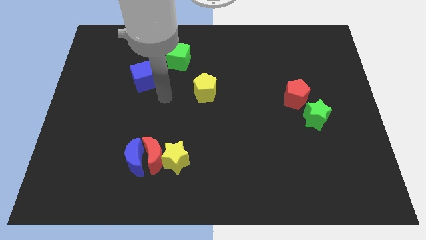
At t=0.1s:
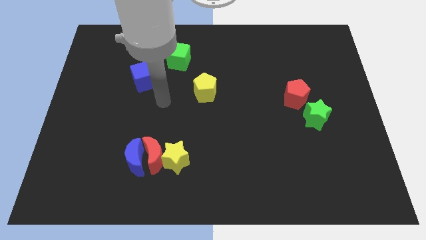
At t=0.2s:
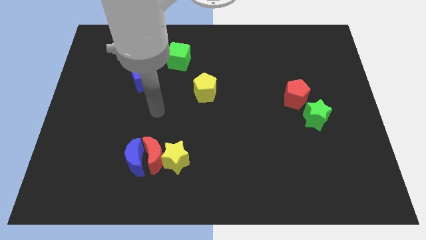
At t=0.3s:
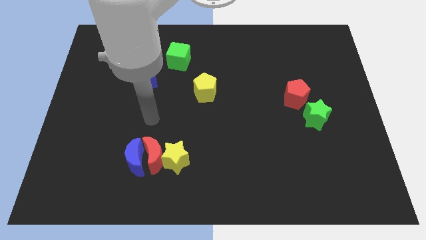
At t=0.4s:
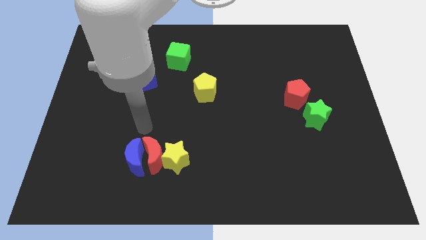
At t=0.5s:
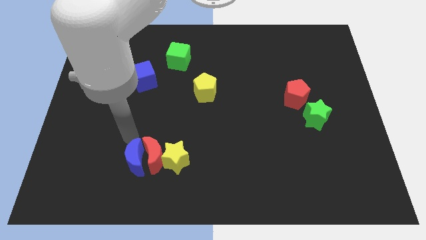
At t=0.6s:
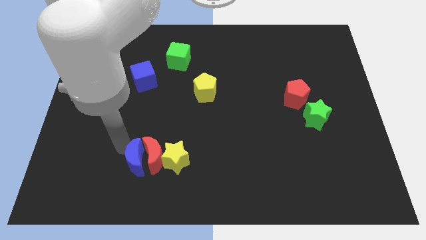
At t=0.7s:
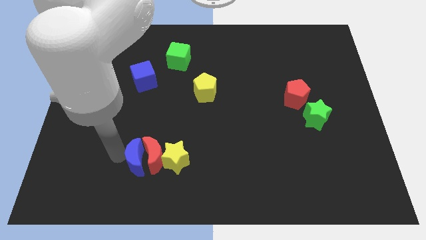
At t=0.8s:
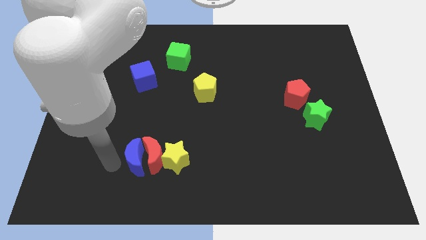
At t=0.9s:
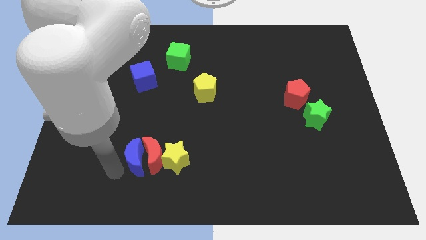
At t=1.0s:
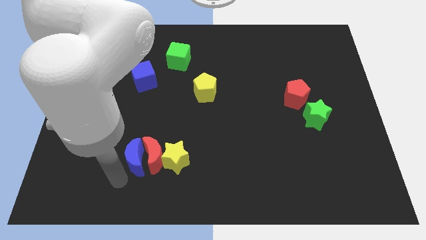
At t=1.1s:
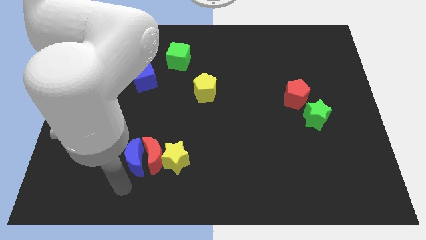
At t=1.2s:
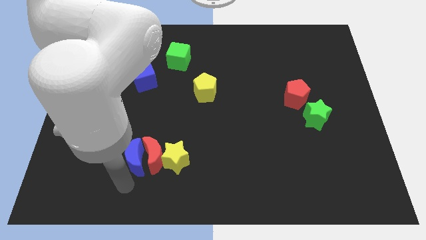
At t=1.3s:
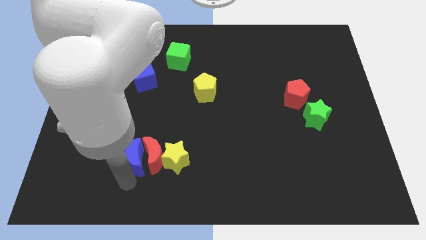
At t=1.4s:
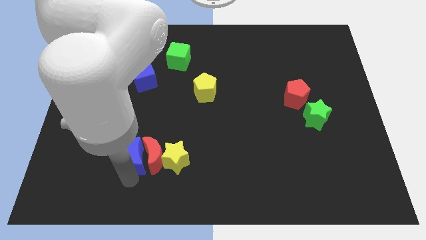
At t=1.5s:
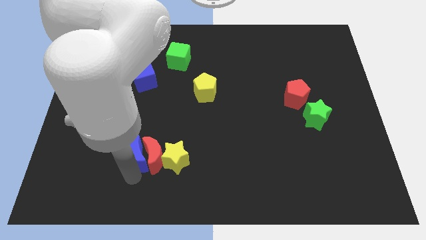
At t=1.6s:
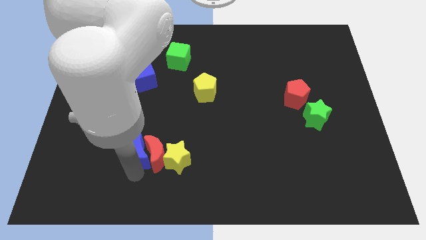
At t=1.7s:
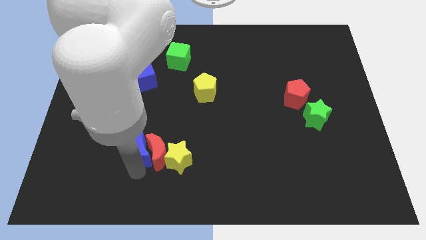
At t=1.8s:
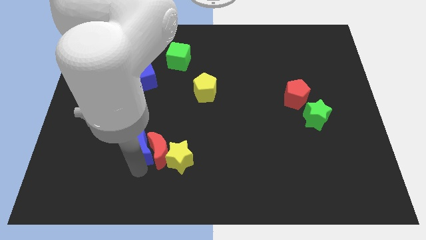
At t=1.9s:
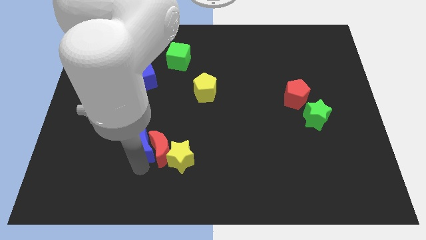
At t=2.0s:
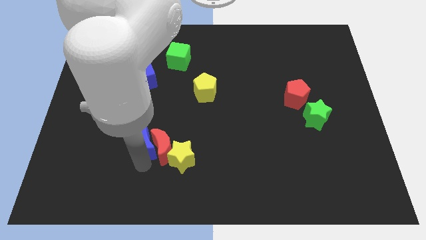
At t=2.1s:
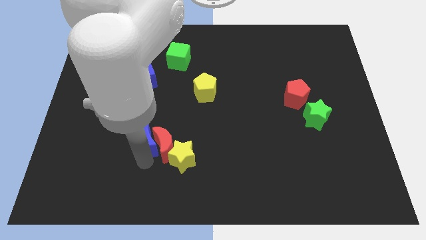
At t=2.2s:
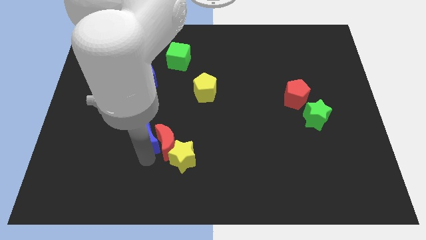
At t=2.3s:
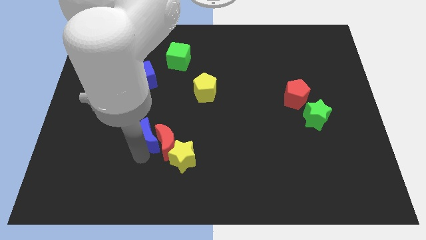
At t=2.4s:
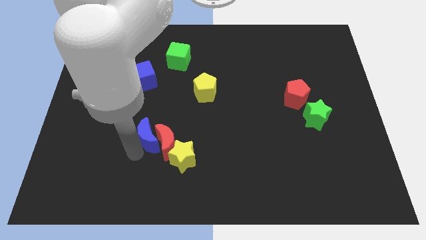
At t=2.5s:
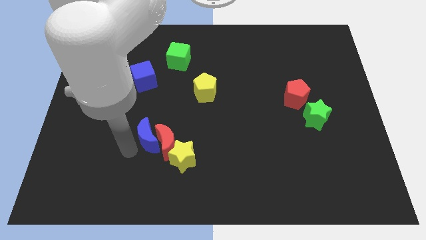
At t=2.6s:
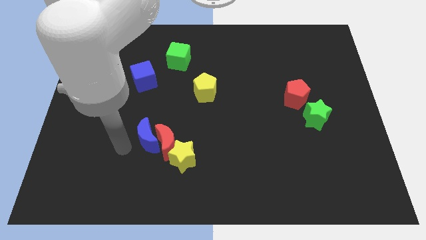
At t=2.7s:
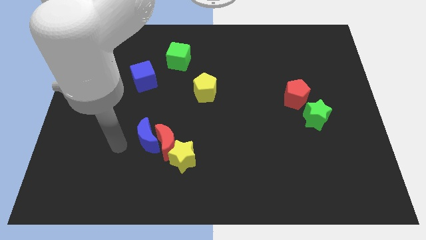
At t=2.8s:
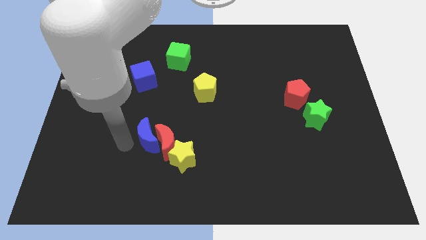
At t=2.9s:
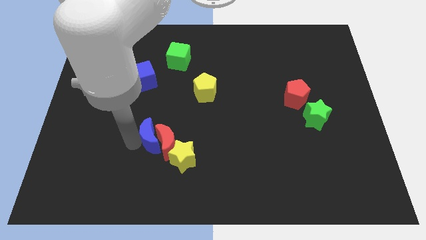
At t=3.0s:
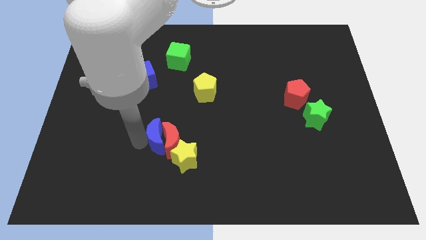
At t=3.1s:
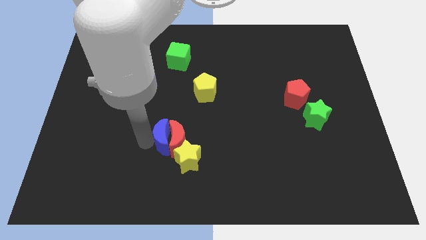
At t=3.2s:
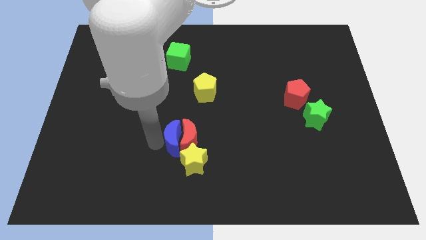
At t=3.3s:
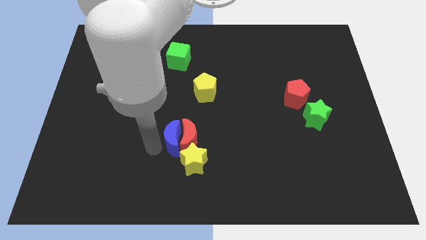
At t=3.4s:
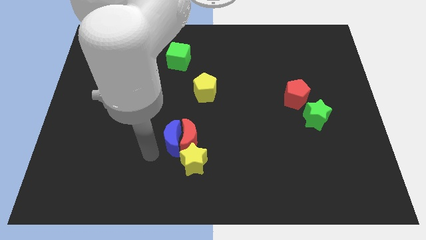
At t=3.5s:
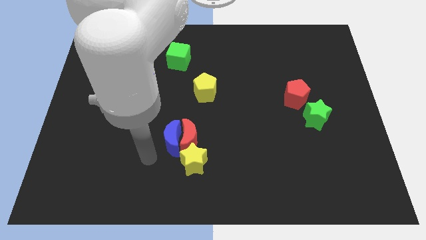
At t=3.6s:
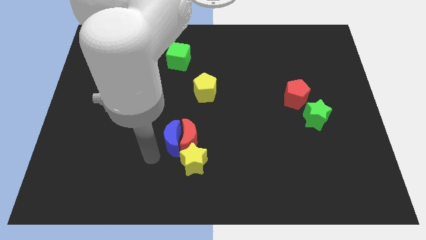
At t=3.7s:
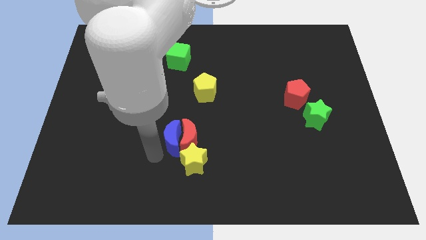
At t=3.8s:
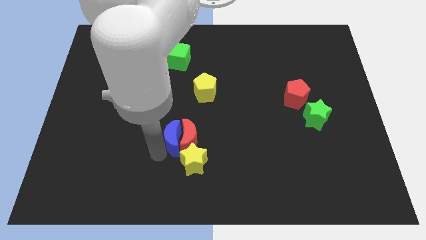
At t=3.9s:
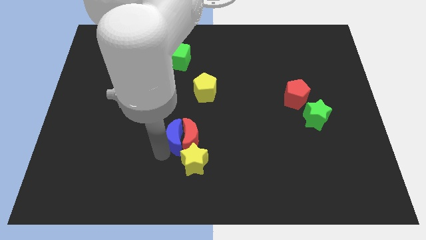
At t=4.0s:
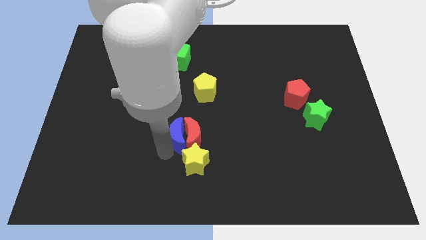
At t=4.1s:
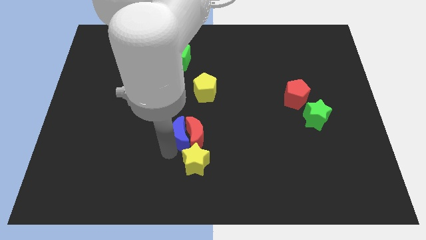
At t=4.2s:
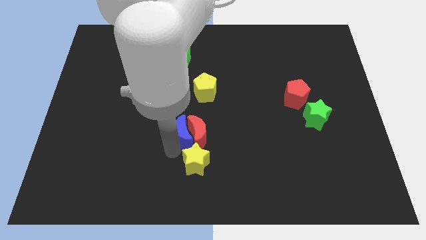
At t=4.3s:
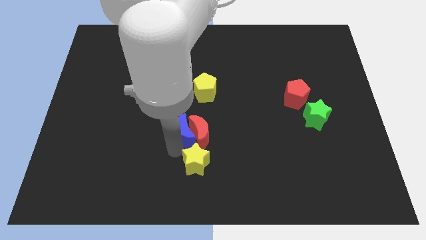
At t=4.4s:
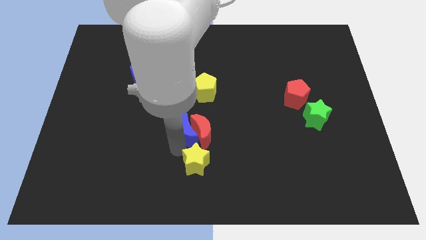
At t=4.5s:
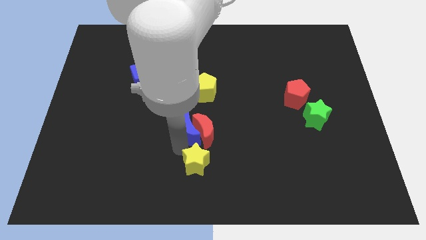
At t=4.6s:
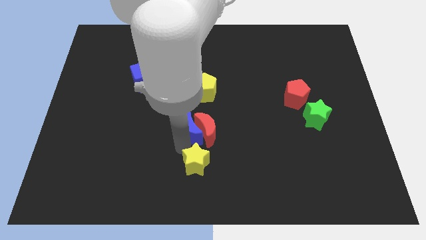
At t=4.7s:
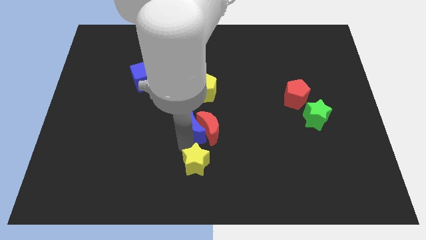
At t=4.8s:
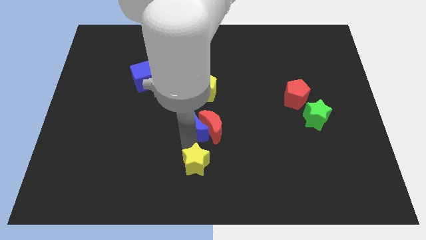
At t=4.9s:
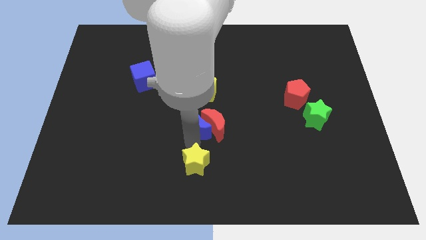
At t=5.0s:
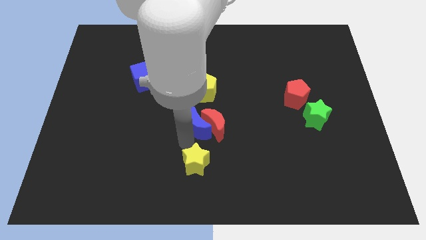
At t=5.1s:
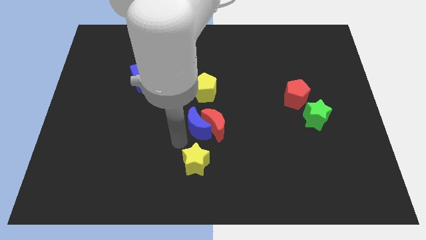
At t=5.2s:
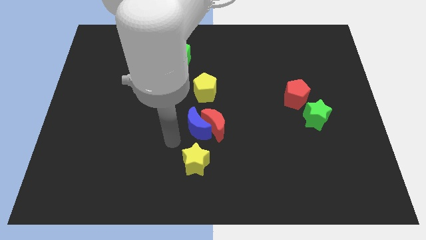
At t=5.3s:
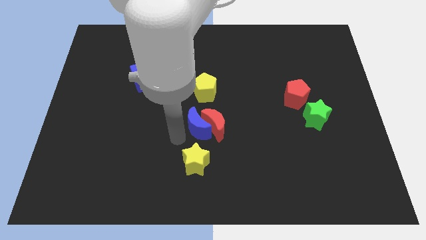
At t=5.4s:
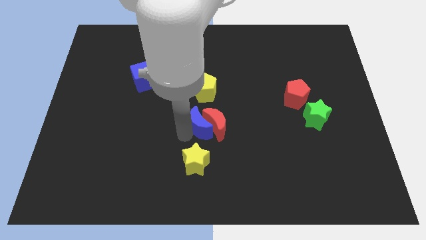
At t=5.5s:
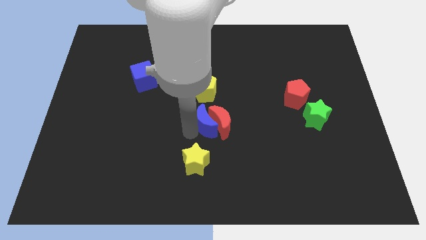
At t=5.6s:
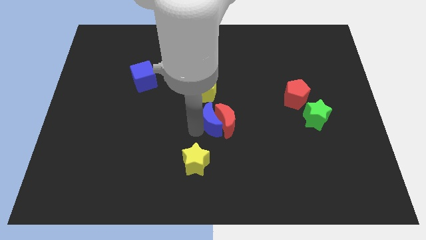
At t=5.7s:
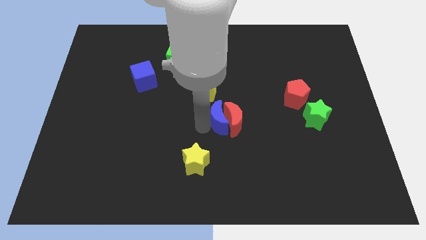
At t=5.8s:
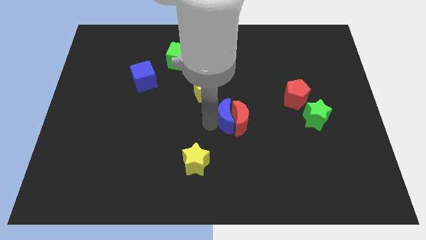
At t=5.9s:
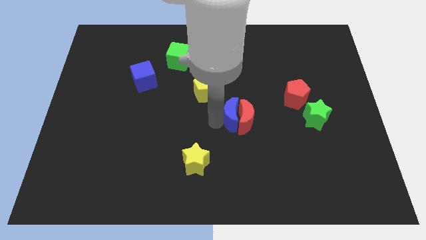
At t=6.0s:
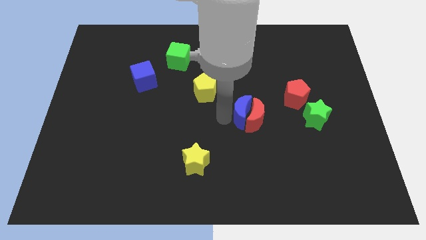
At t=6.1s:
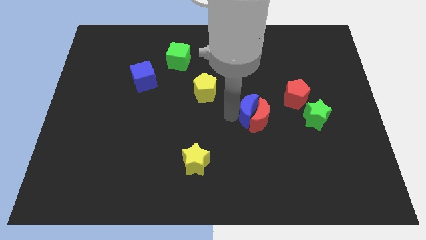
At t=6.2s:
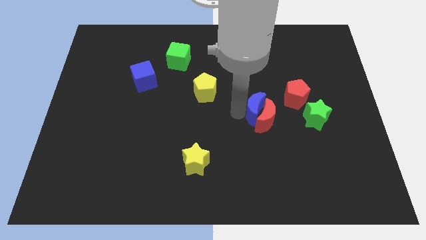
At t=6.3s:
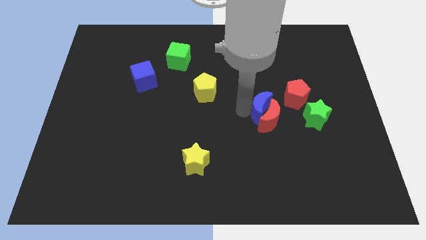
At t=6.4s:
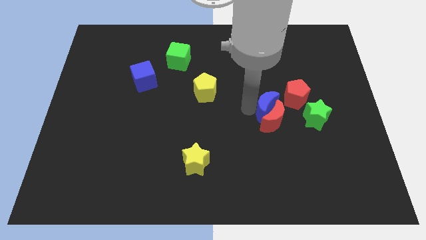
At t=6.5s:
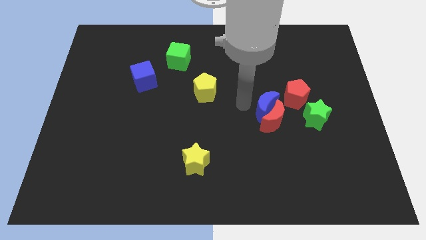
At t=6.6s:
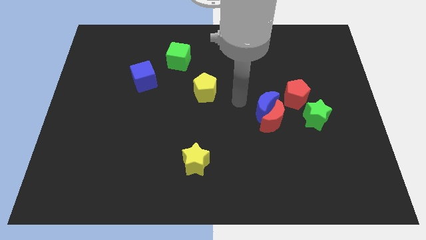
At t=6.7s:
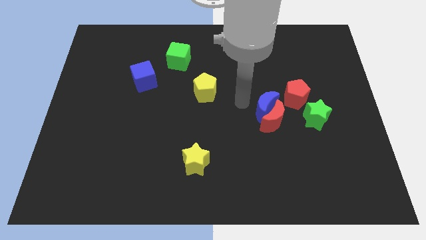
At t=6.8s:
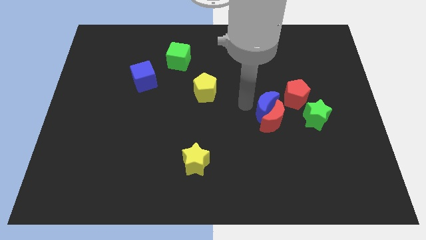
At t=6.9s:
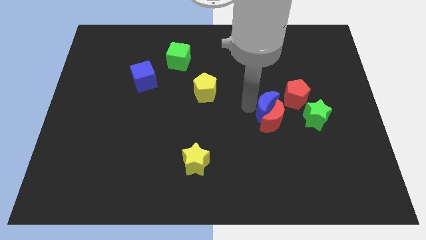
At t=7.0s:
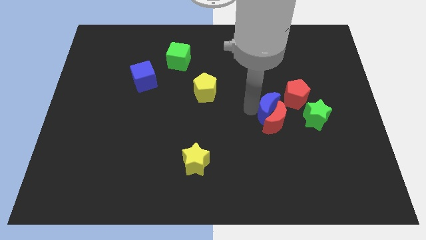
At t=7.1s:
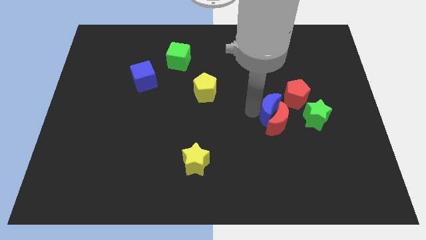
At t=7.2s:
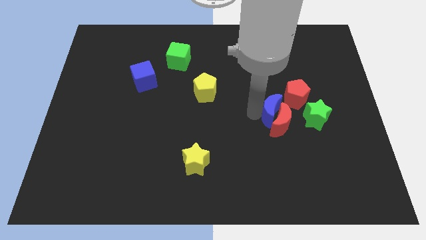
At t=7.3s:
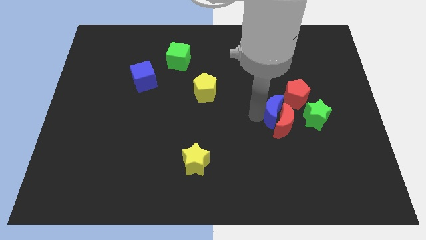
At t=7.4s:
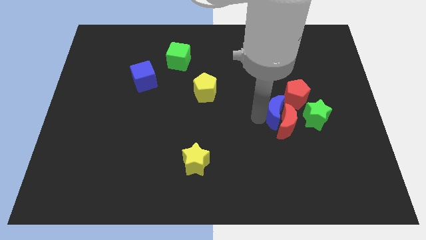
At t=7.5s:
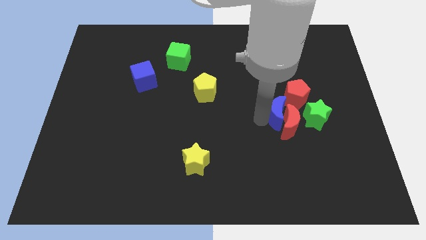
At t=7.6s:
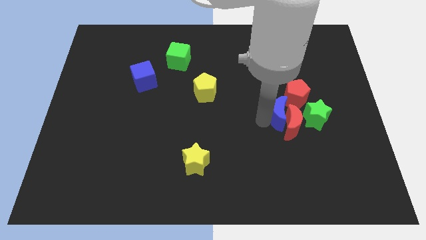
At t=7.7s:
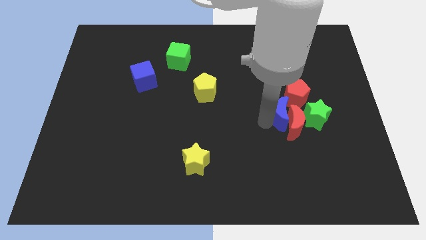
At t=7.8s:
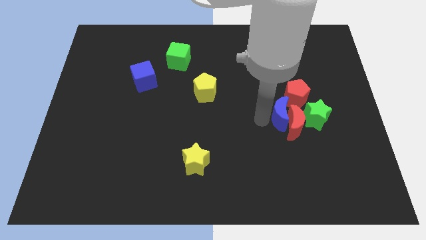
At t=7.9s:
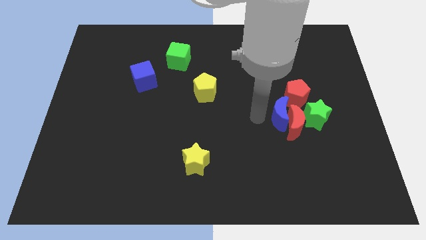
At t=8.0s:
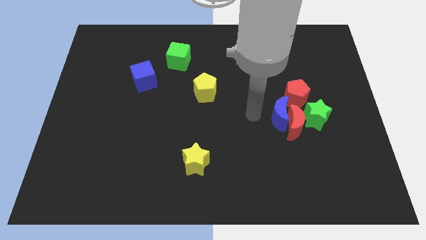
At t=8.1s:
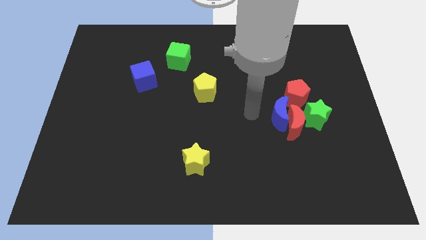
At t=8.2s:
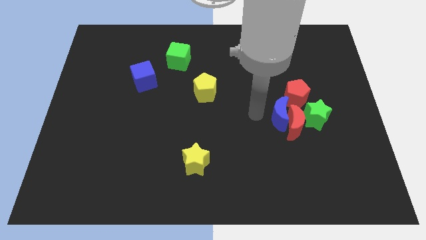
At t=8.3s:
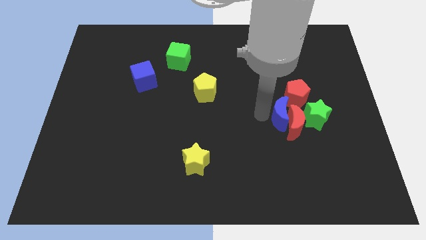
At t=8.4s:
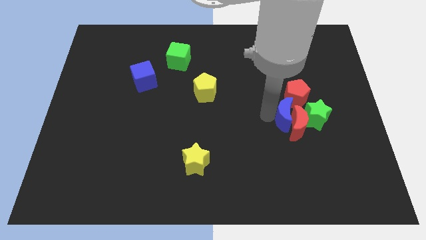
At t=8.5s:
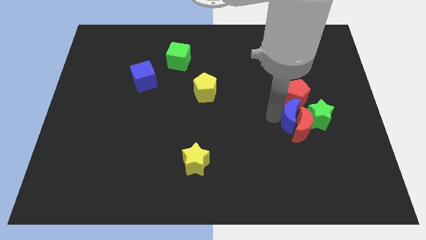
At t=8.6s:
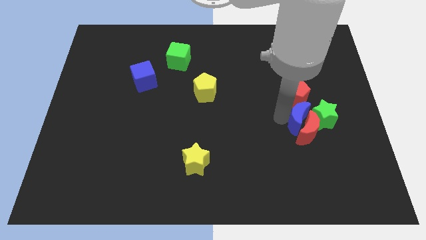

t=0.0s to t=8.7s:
slide the blue moon close to the green star
